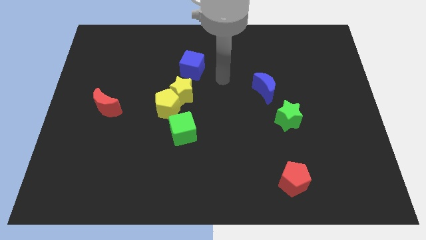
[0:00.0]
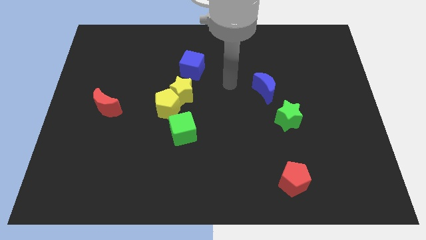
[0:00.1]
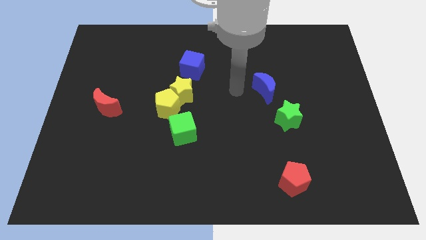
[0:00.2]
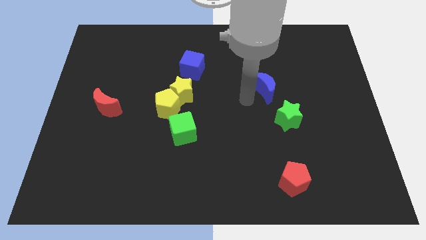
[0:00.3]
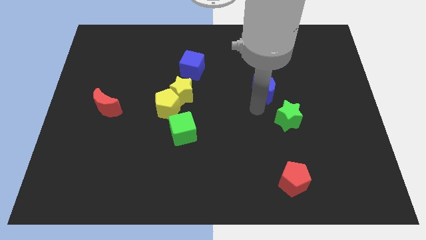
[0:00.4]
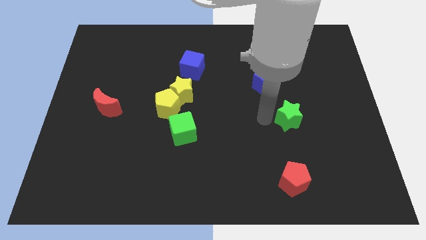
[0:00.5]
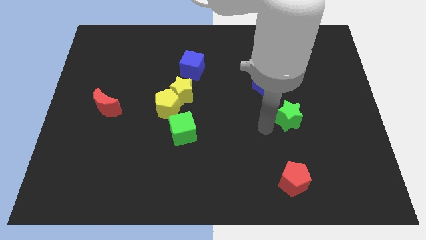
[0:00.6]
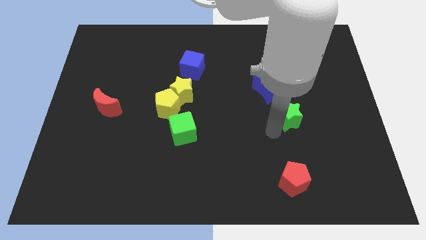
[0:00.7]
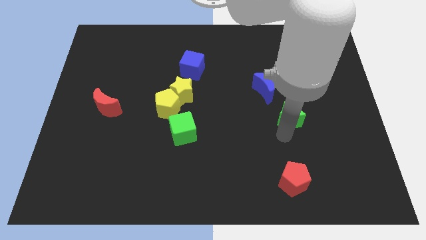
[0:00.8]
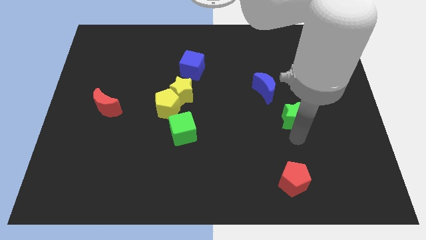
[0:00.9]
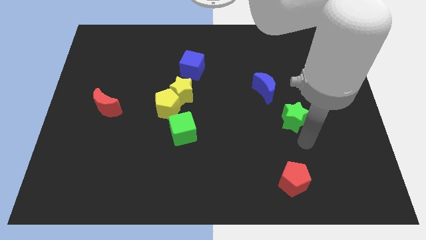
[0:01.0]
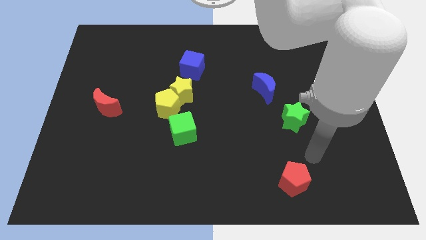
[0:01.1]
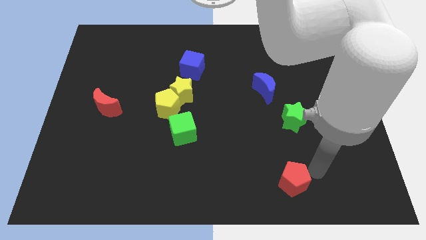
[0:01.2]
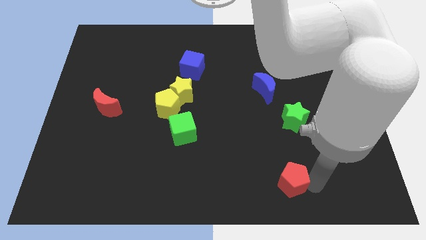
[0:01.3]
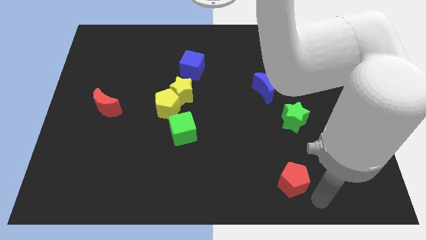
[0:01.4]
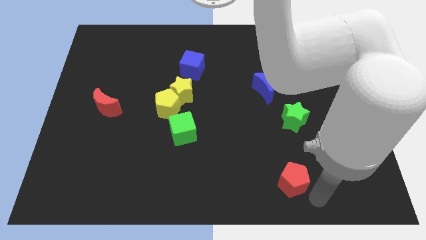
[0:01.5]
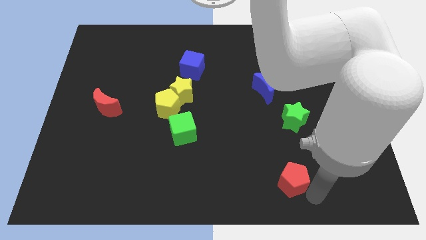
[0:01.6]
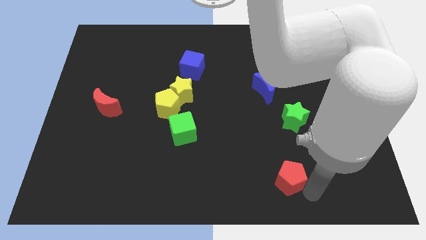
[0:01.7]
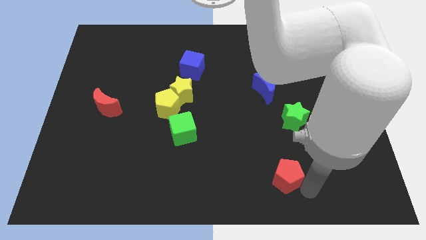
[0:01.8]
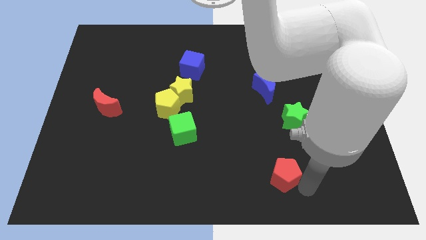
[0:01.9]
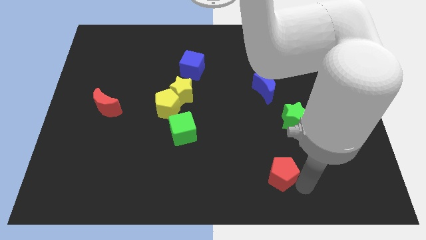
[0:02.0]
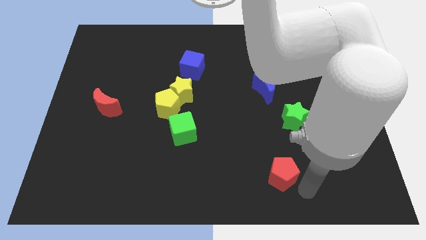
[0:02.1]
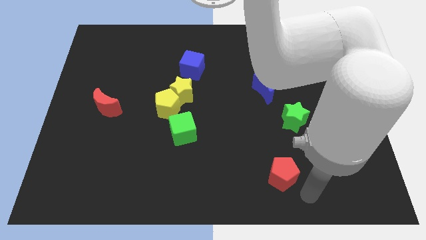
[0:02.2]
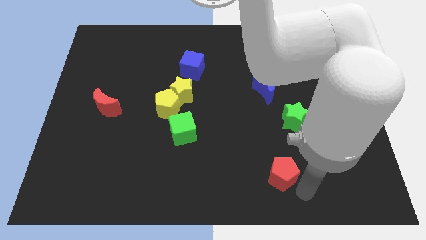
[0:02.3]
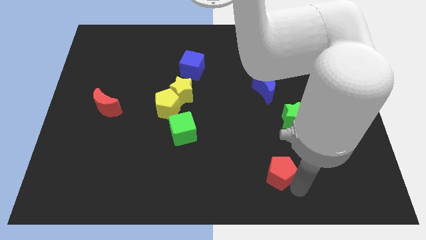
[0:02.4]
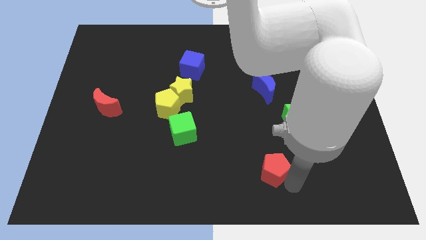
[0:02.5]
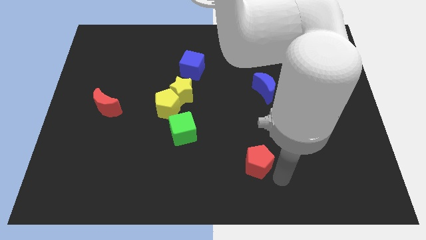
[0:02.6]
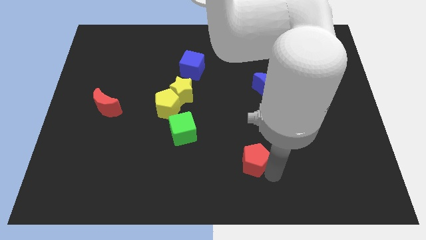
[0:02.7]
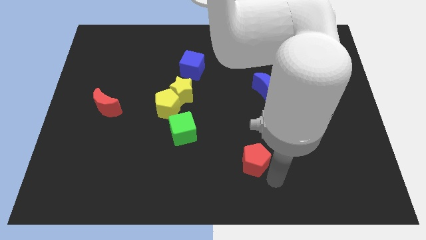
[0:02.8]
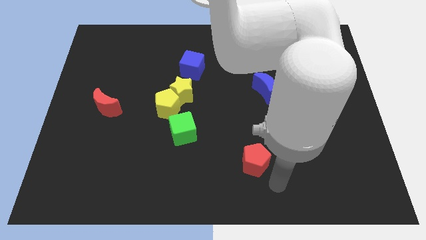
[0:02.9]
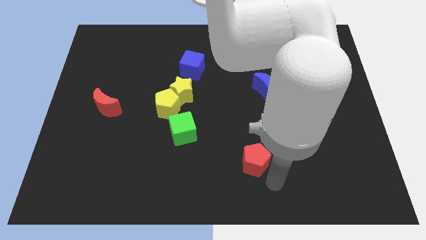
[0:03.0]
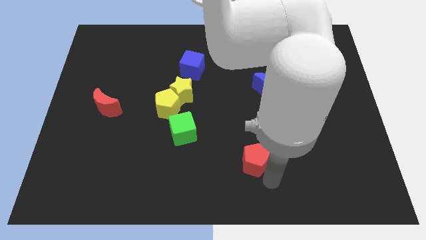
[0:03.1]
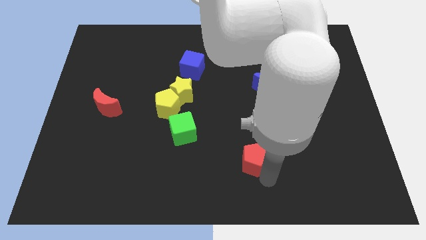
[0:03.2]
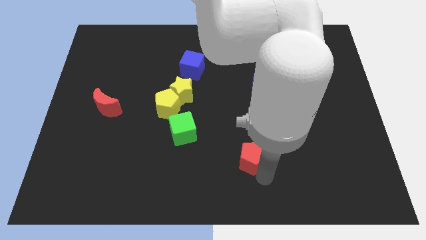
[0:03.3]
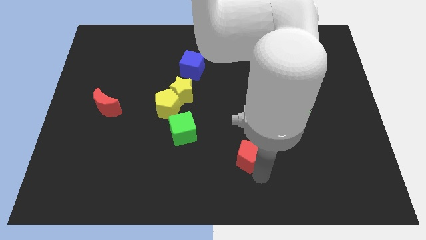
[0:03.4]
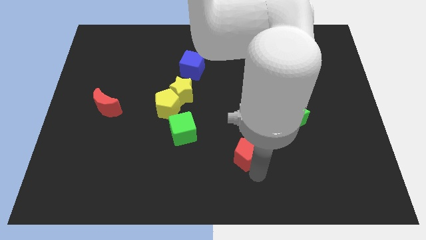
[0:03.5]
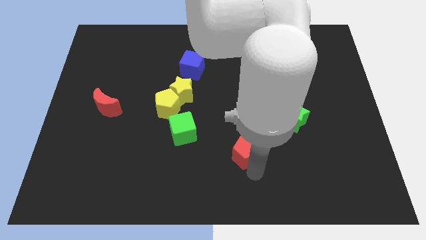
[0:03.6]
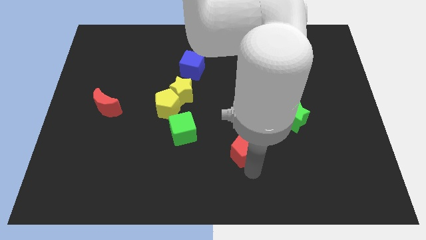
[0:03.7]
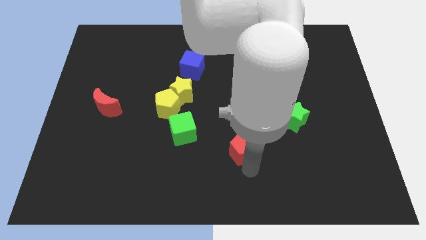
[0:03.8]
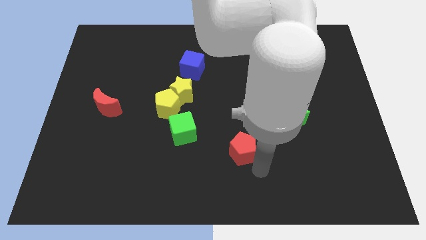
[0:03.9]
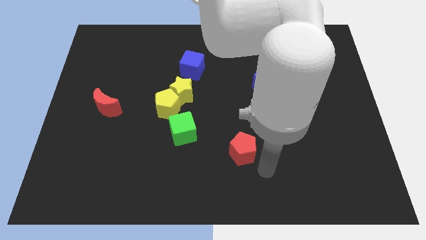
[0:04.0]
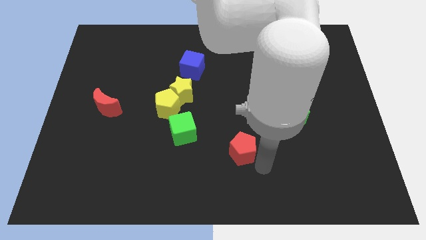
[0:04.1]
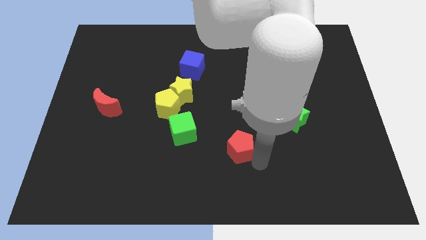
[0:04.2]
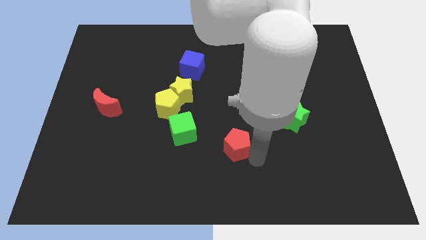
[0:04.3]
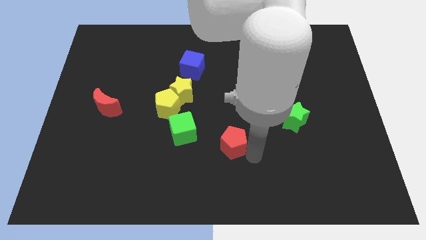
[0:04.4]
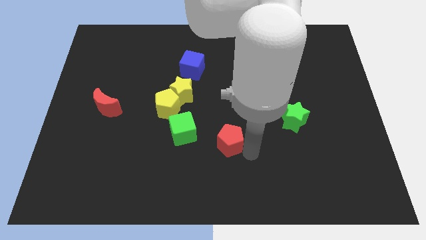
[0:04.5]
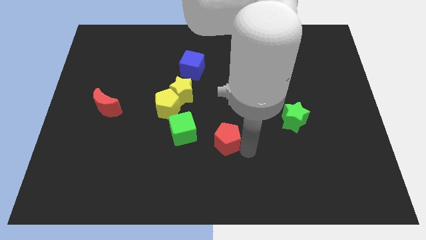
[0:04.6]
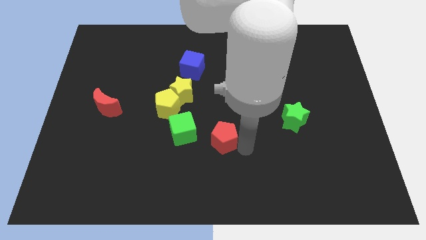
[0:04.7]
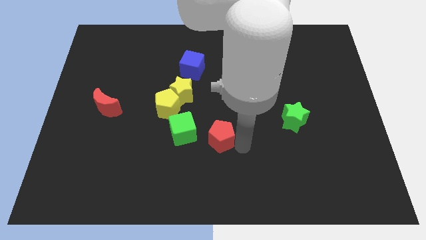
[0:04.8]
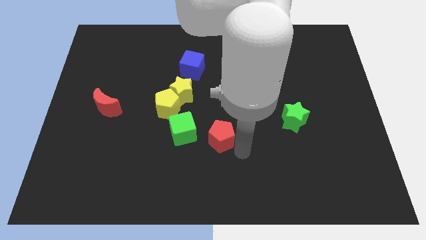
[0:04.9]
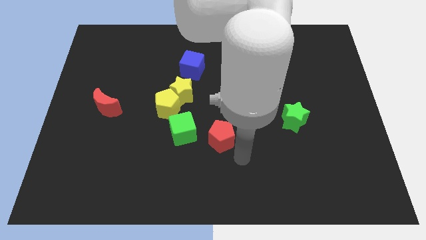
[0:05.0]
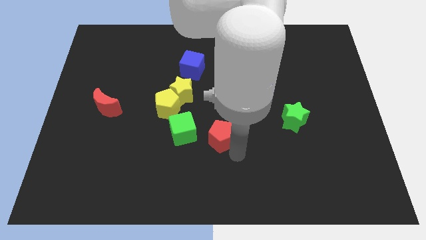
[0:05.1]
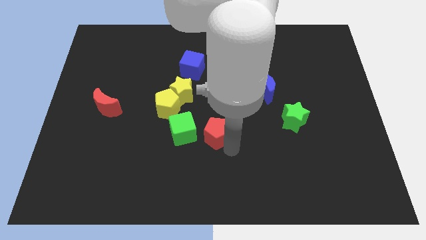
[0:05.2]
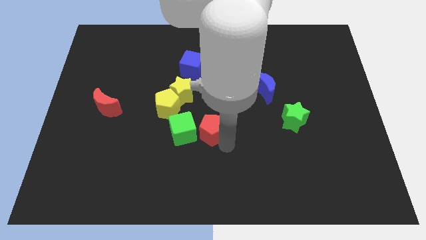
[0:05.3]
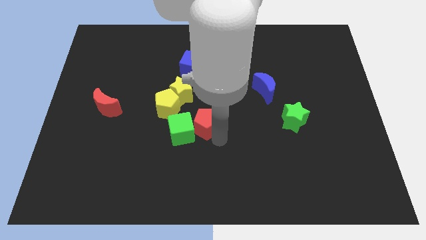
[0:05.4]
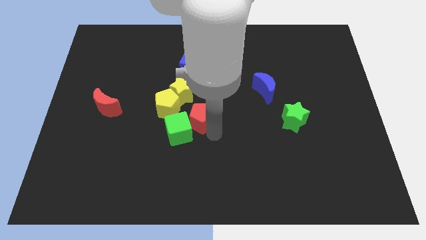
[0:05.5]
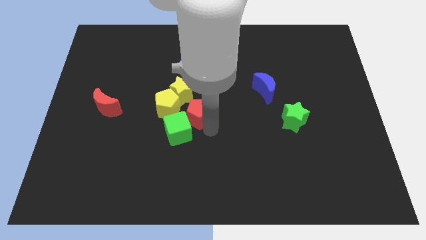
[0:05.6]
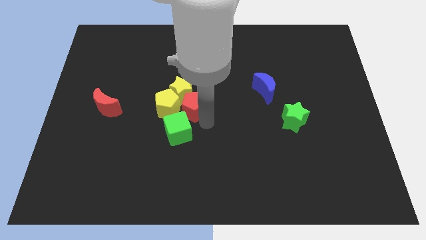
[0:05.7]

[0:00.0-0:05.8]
put the red pentagon towards the yellow pentagon

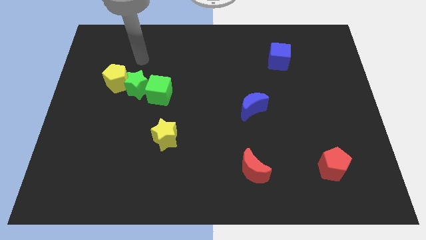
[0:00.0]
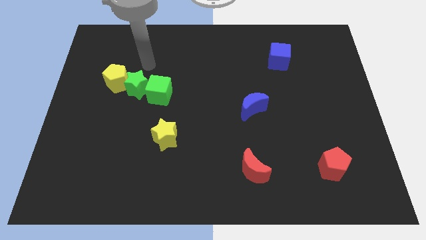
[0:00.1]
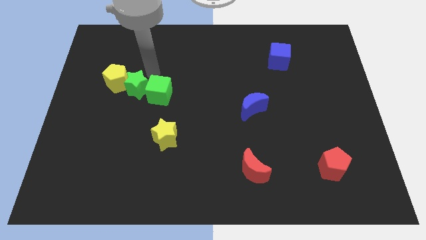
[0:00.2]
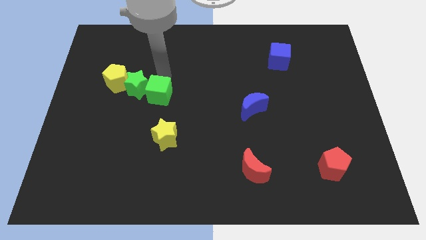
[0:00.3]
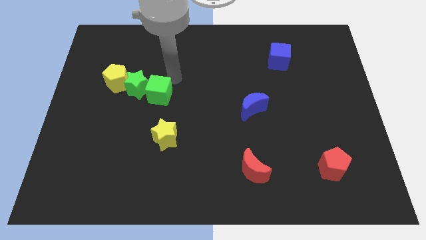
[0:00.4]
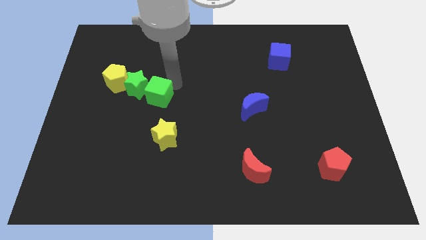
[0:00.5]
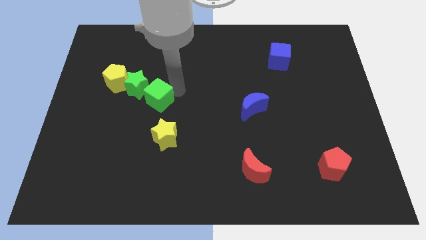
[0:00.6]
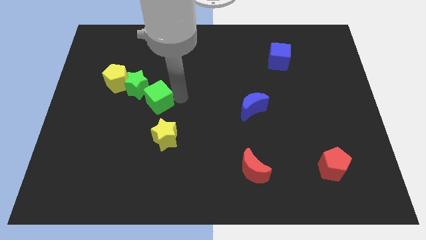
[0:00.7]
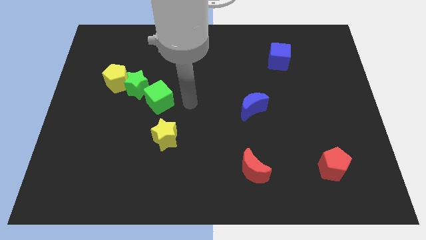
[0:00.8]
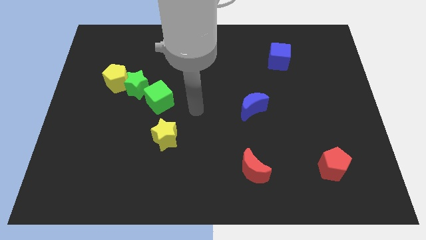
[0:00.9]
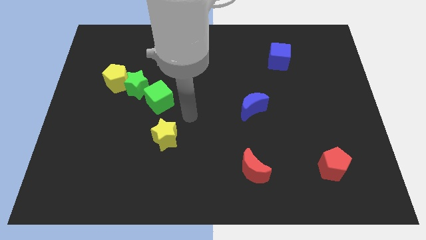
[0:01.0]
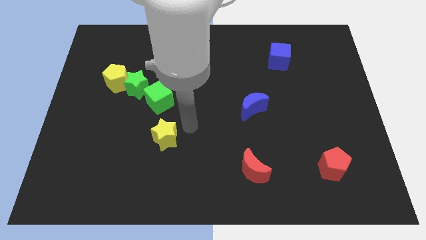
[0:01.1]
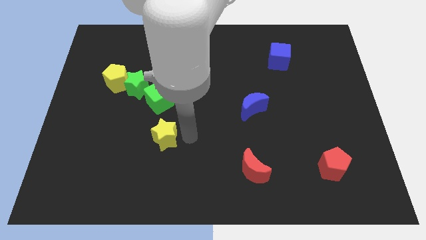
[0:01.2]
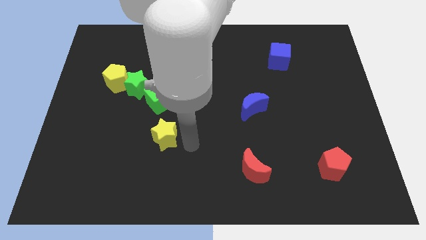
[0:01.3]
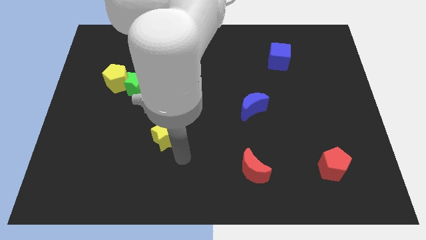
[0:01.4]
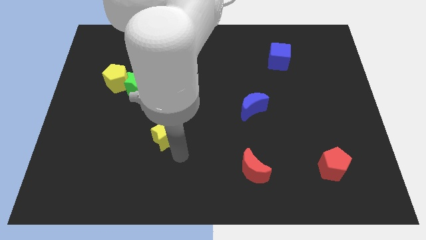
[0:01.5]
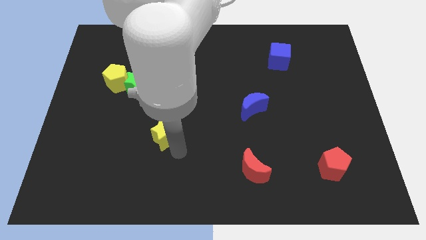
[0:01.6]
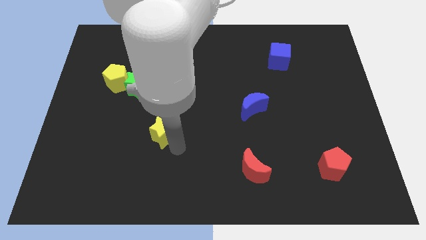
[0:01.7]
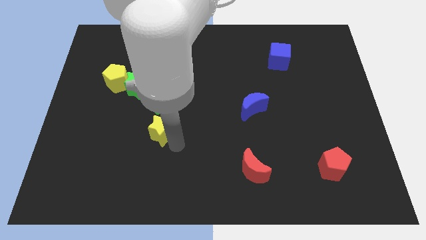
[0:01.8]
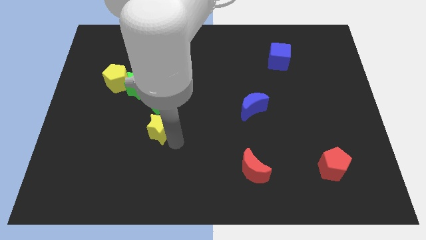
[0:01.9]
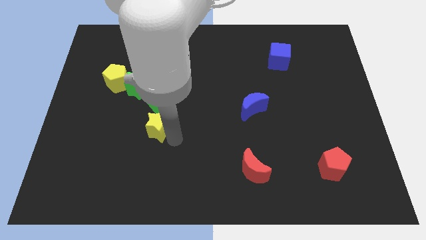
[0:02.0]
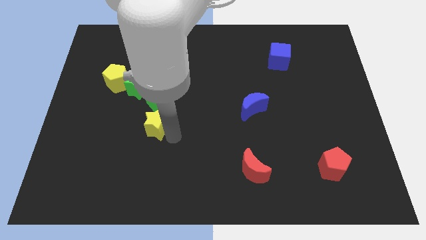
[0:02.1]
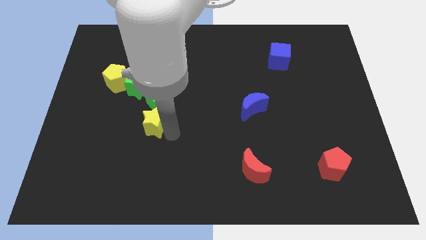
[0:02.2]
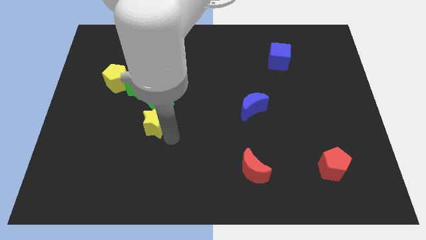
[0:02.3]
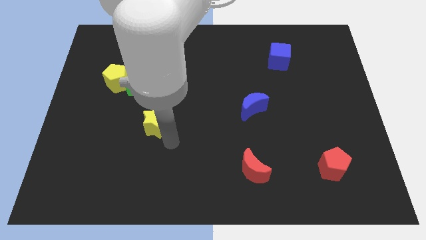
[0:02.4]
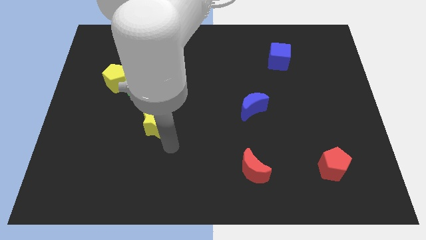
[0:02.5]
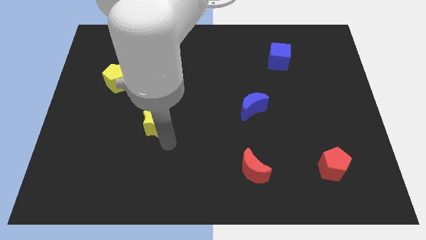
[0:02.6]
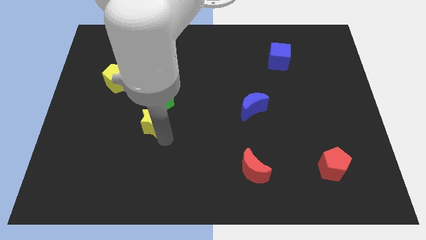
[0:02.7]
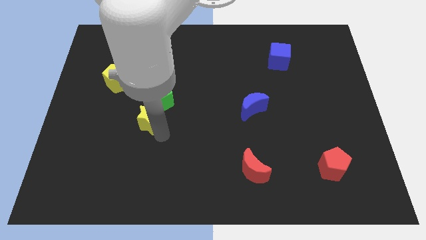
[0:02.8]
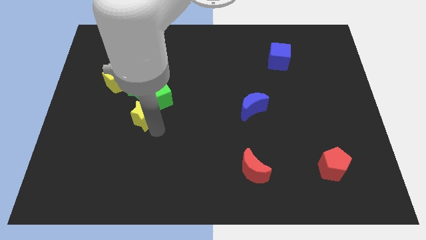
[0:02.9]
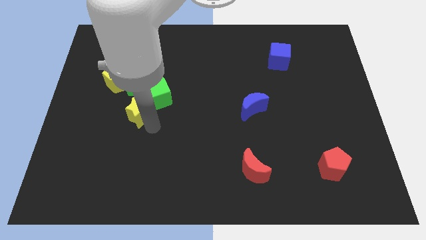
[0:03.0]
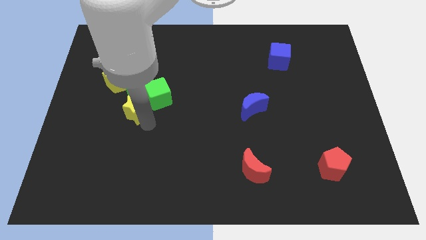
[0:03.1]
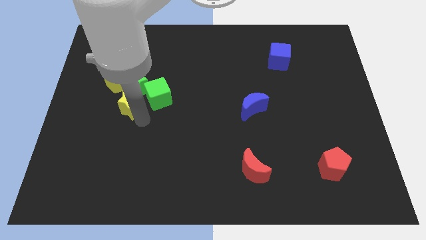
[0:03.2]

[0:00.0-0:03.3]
push the yellow star to the green star
